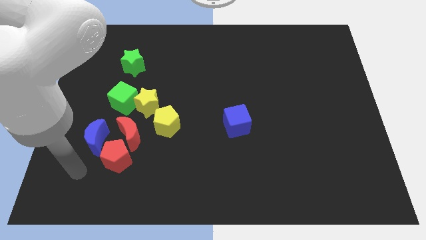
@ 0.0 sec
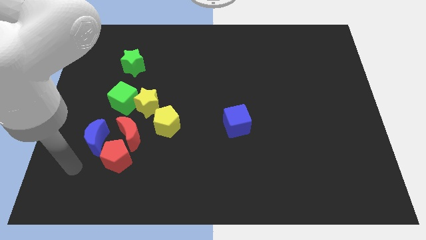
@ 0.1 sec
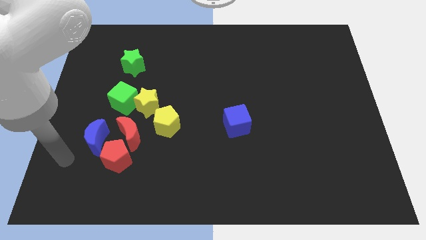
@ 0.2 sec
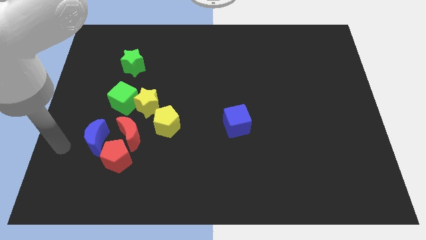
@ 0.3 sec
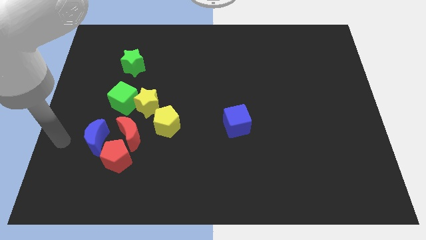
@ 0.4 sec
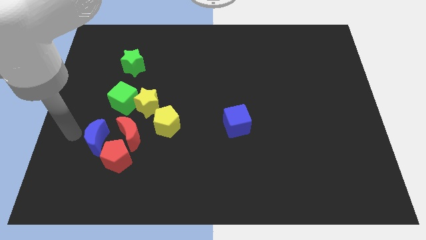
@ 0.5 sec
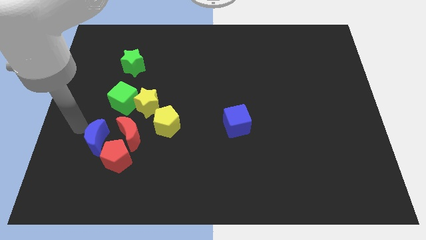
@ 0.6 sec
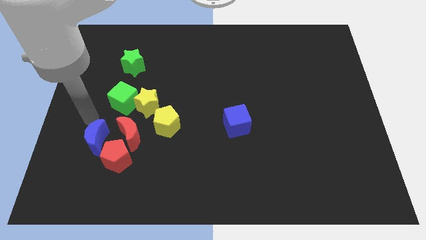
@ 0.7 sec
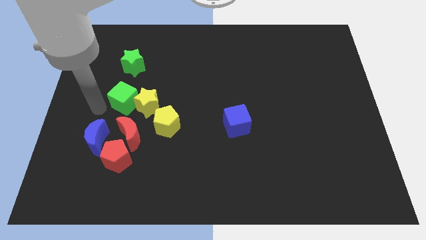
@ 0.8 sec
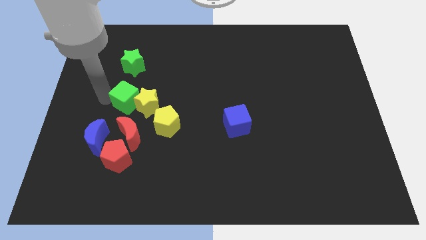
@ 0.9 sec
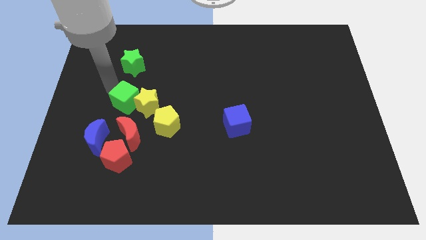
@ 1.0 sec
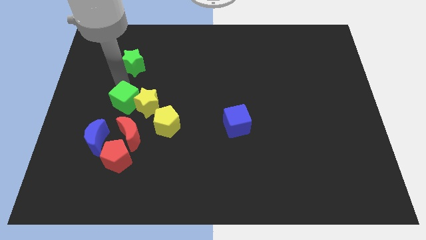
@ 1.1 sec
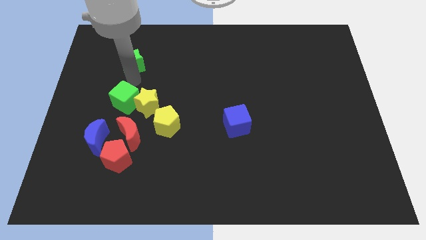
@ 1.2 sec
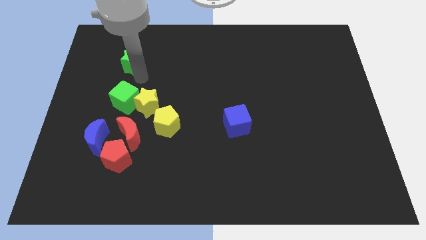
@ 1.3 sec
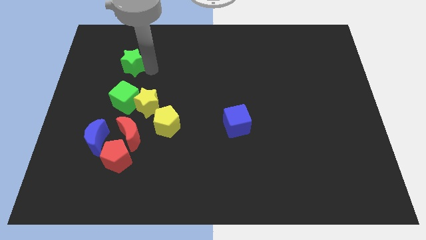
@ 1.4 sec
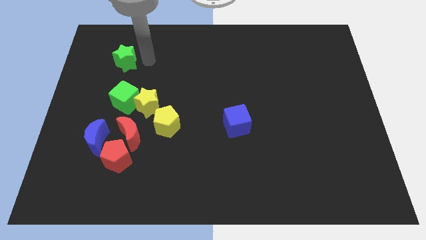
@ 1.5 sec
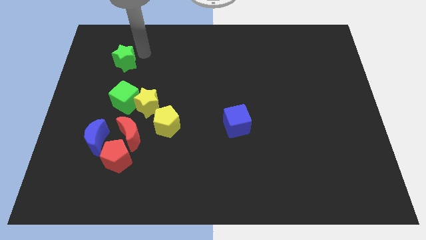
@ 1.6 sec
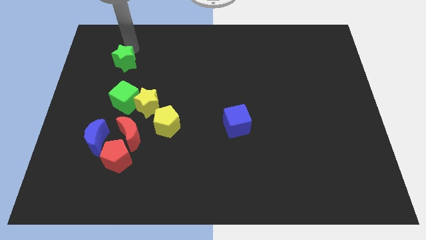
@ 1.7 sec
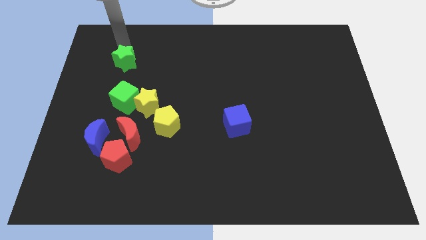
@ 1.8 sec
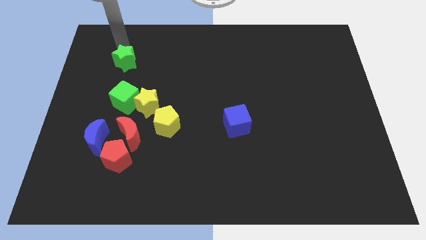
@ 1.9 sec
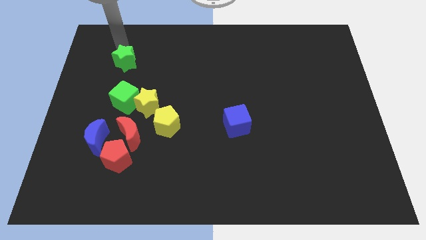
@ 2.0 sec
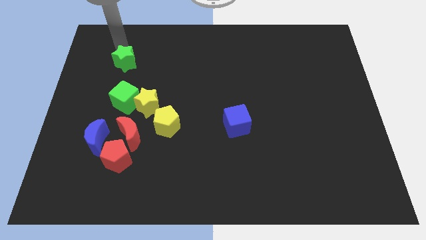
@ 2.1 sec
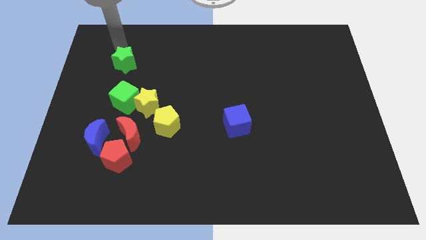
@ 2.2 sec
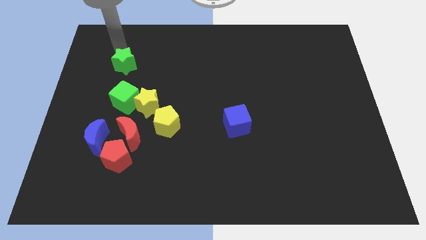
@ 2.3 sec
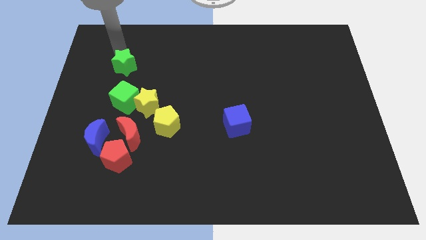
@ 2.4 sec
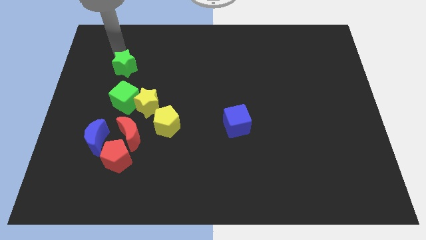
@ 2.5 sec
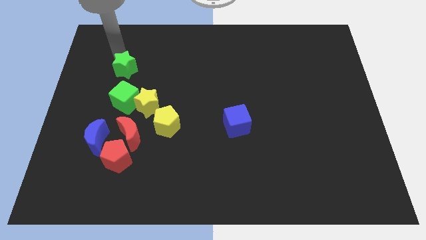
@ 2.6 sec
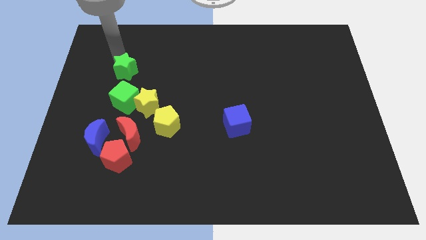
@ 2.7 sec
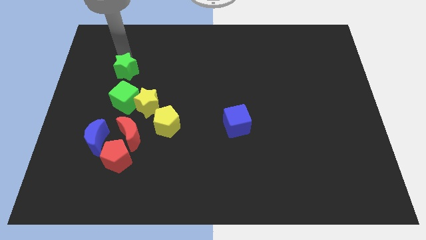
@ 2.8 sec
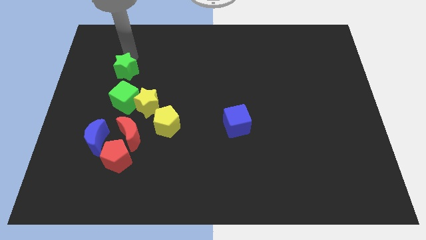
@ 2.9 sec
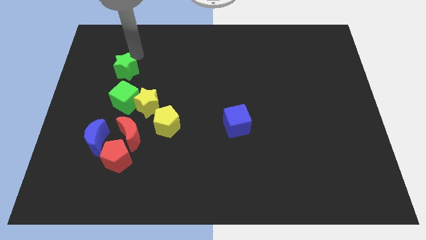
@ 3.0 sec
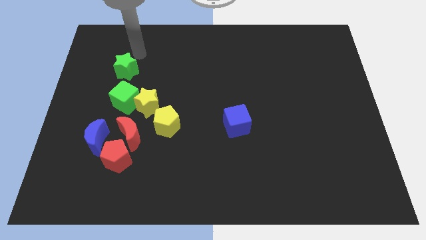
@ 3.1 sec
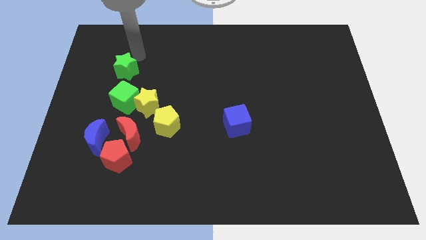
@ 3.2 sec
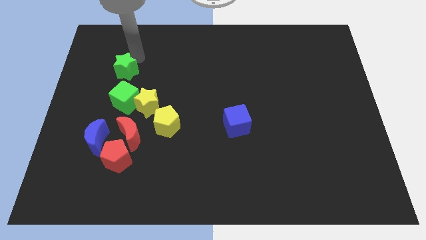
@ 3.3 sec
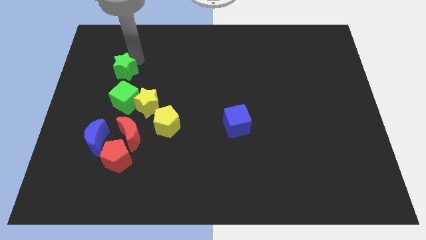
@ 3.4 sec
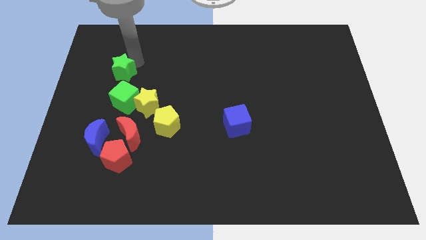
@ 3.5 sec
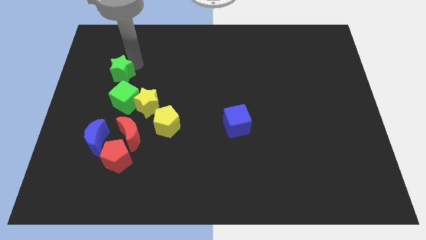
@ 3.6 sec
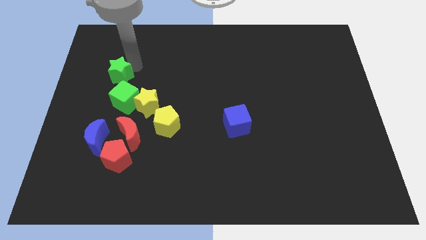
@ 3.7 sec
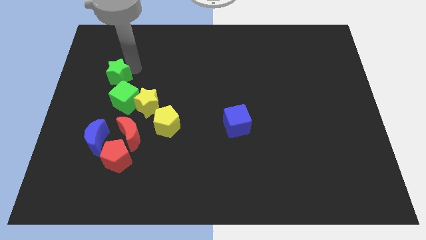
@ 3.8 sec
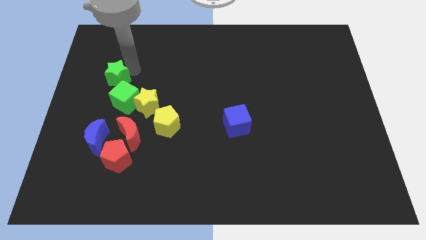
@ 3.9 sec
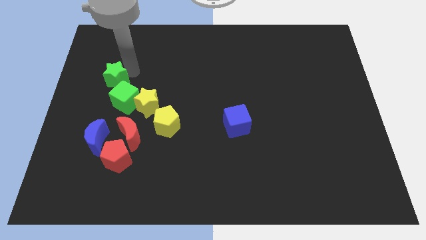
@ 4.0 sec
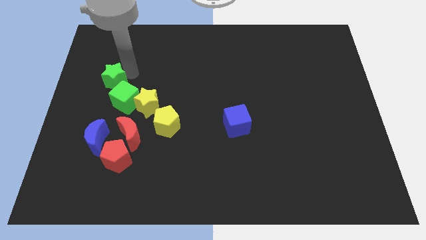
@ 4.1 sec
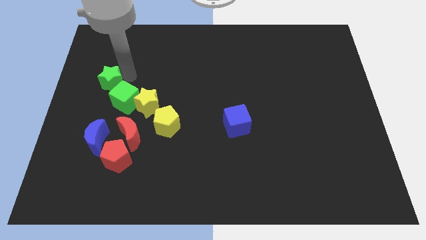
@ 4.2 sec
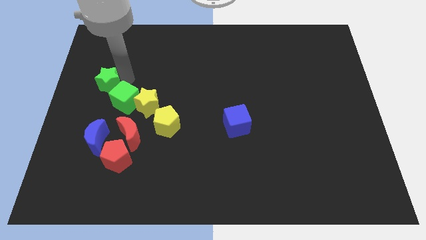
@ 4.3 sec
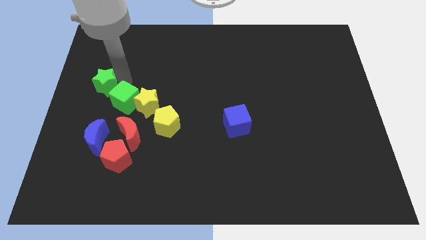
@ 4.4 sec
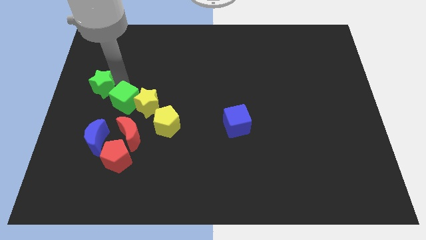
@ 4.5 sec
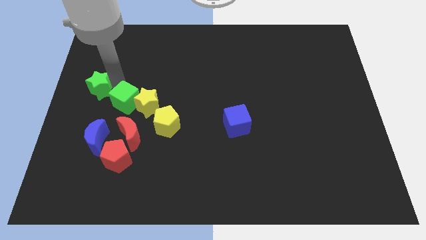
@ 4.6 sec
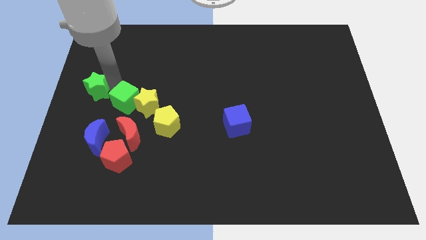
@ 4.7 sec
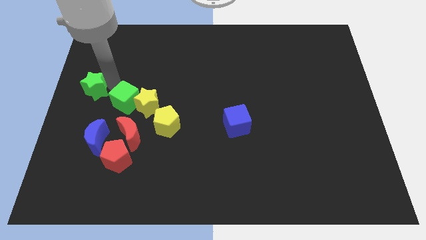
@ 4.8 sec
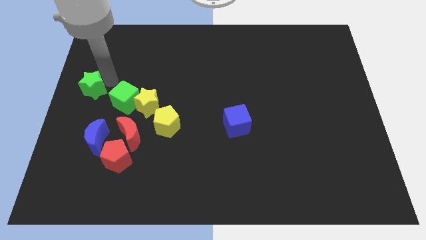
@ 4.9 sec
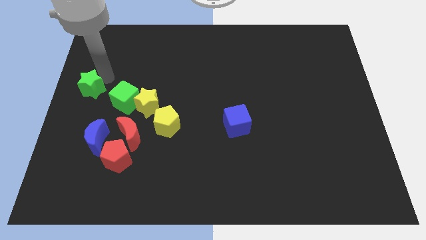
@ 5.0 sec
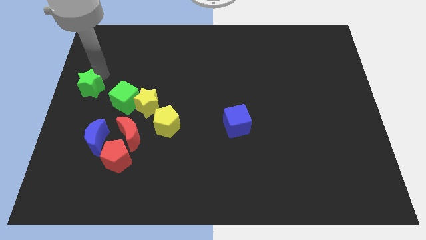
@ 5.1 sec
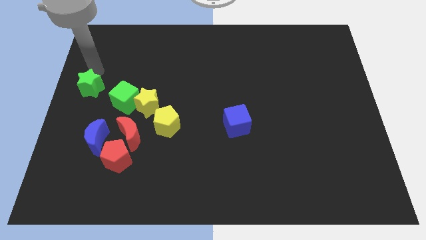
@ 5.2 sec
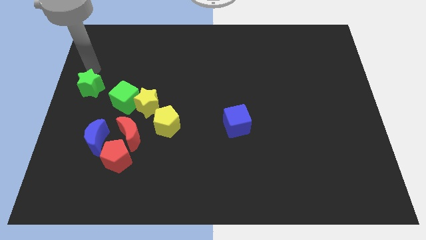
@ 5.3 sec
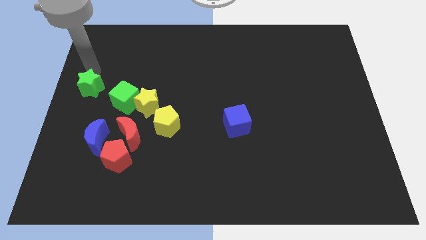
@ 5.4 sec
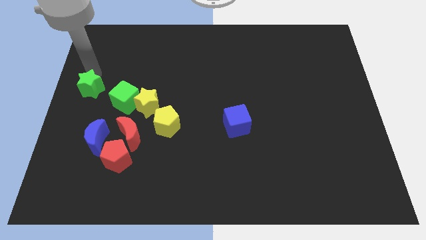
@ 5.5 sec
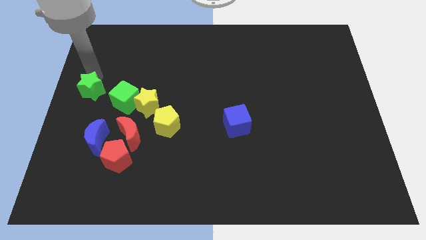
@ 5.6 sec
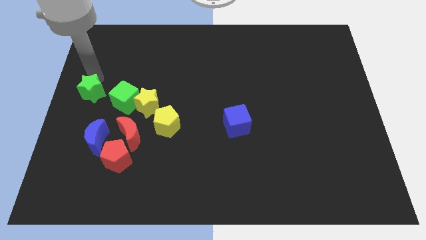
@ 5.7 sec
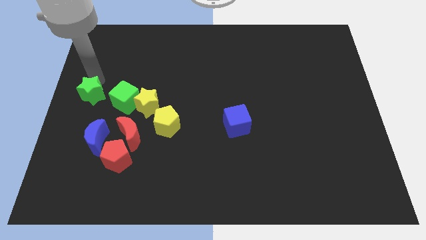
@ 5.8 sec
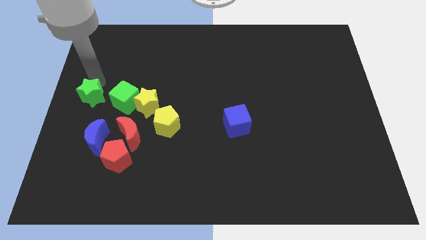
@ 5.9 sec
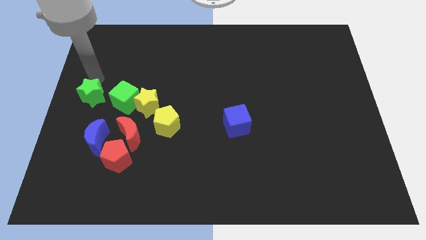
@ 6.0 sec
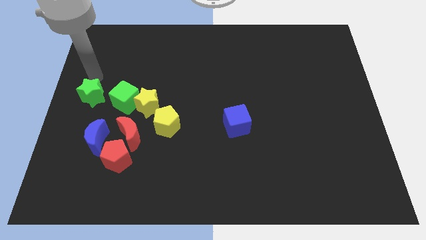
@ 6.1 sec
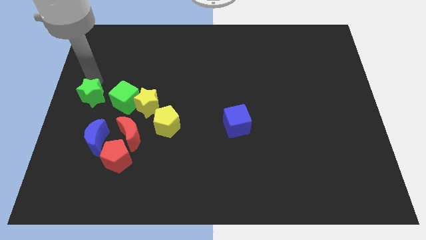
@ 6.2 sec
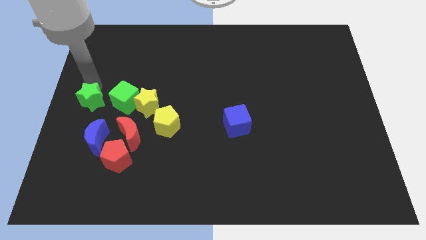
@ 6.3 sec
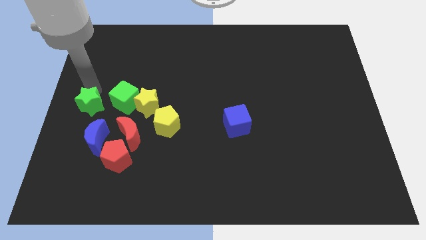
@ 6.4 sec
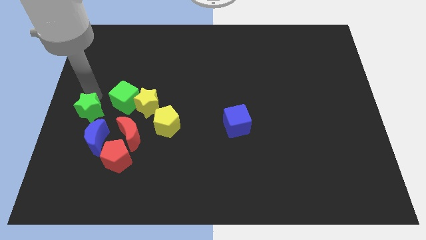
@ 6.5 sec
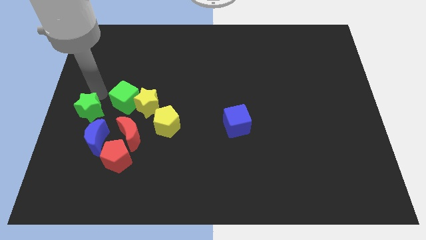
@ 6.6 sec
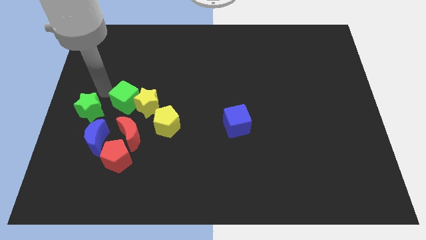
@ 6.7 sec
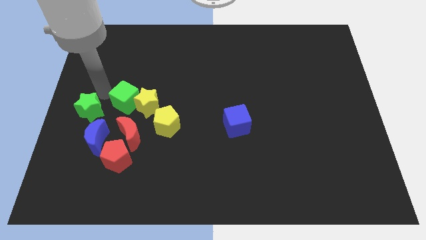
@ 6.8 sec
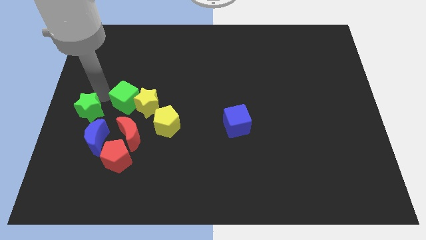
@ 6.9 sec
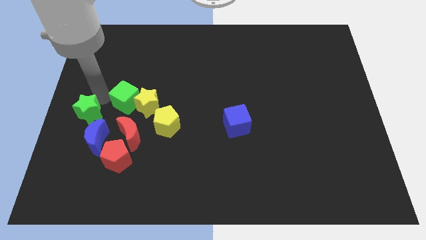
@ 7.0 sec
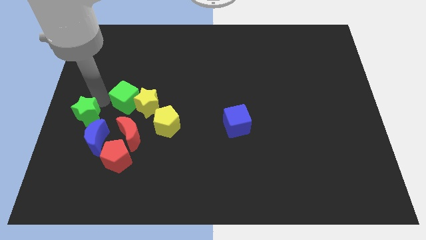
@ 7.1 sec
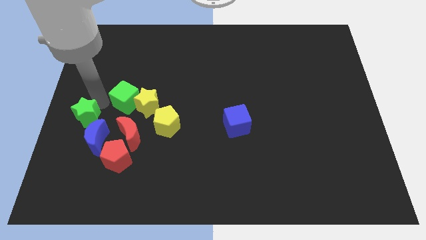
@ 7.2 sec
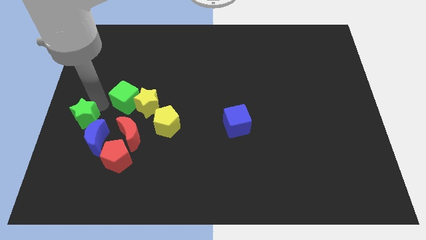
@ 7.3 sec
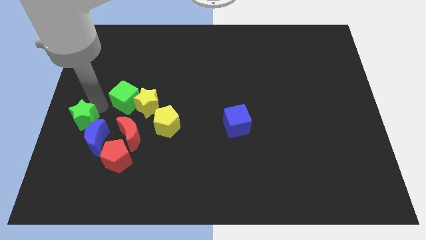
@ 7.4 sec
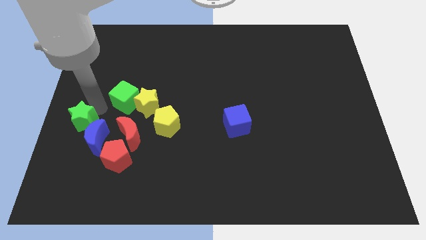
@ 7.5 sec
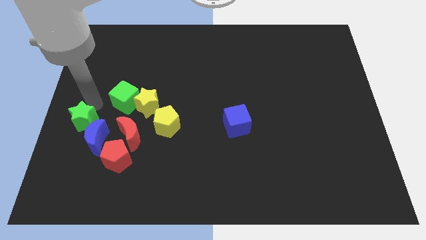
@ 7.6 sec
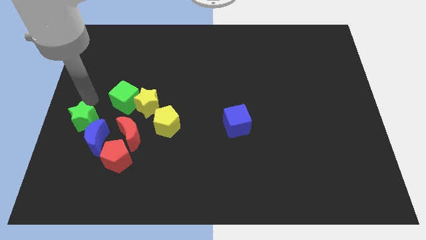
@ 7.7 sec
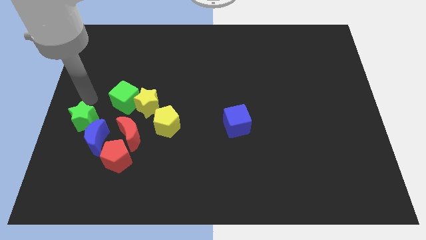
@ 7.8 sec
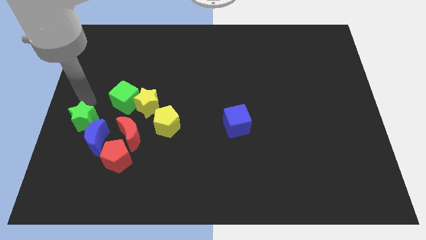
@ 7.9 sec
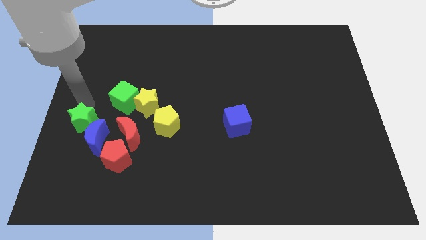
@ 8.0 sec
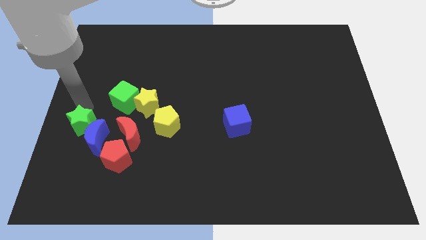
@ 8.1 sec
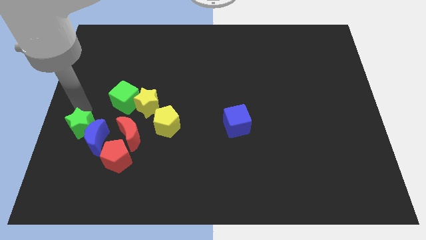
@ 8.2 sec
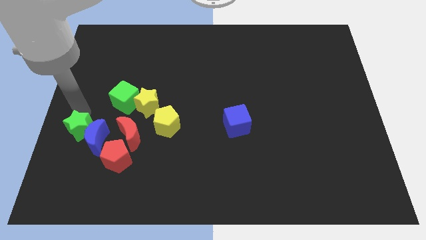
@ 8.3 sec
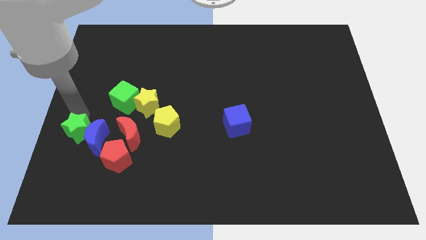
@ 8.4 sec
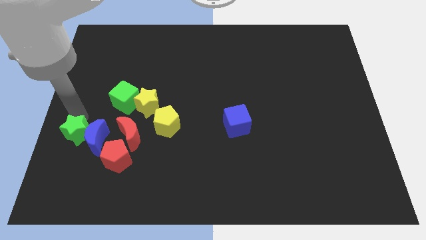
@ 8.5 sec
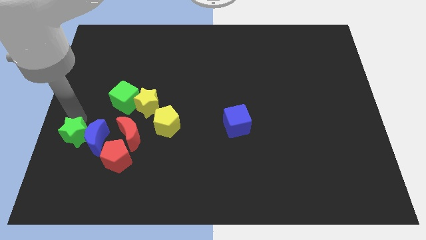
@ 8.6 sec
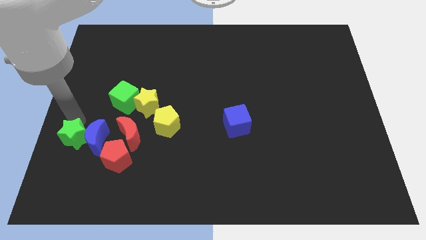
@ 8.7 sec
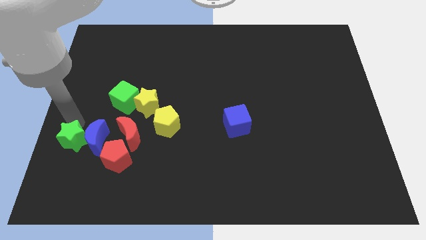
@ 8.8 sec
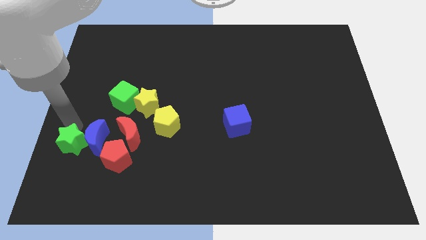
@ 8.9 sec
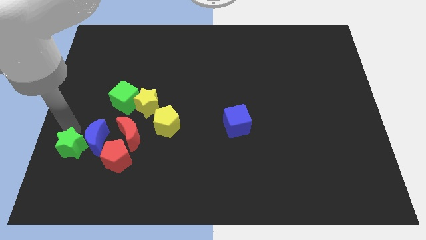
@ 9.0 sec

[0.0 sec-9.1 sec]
move the green star downwards
